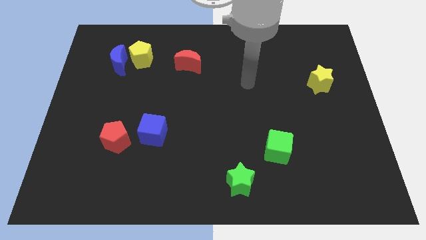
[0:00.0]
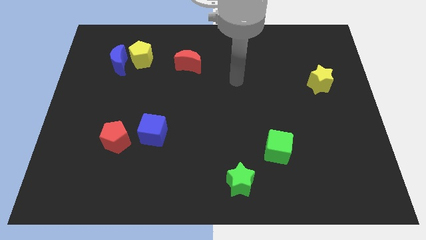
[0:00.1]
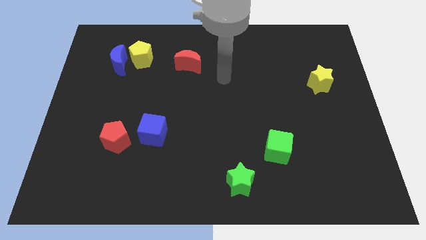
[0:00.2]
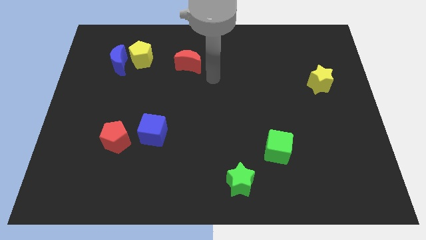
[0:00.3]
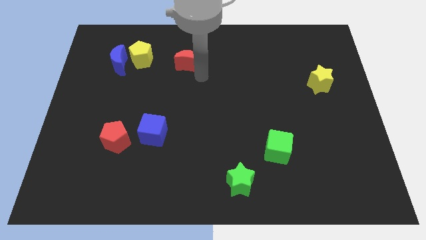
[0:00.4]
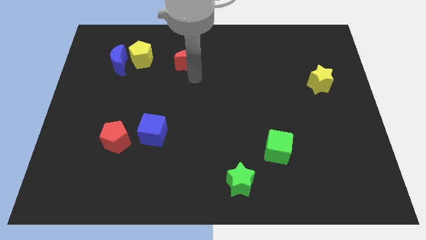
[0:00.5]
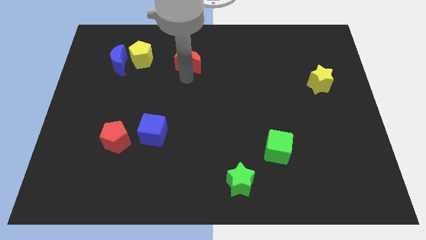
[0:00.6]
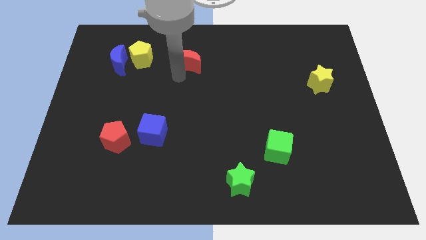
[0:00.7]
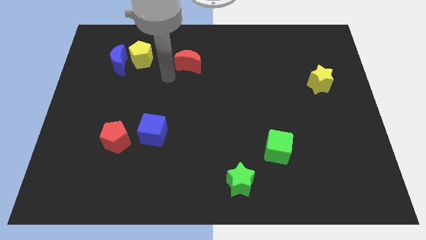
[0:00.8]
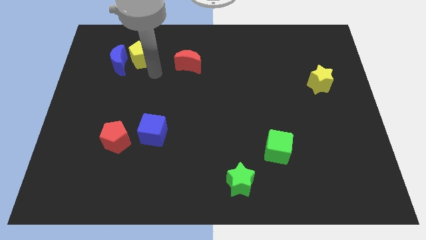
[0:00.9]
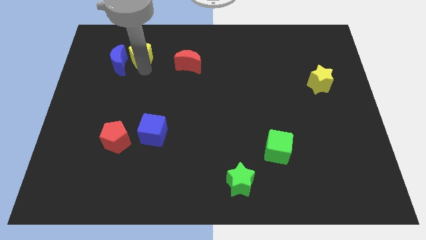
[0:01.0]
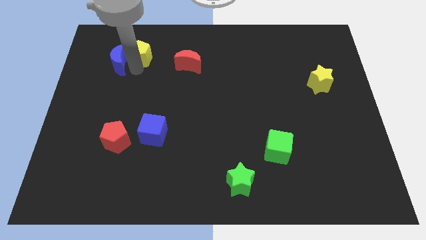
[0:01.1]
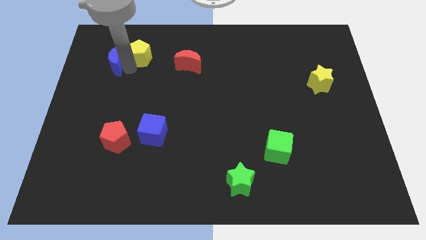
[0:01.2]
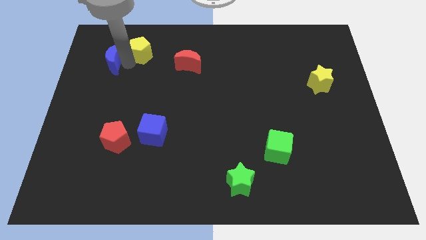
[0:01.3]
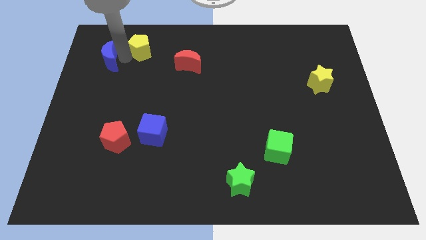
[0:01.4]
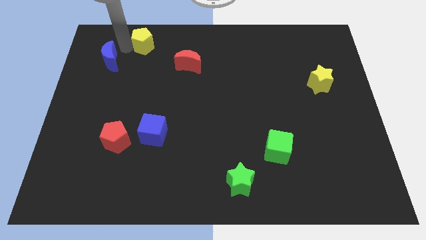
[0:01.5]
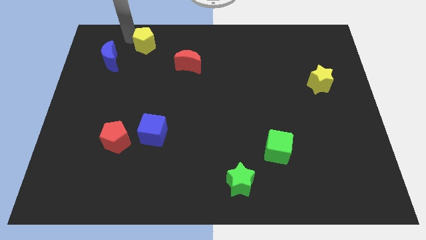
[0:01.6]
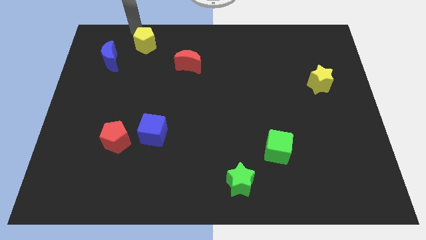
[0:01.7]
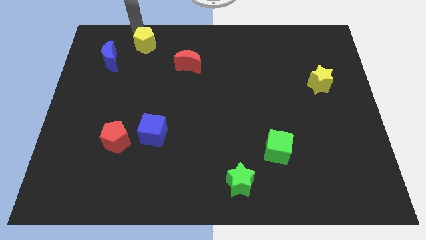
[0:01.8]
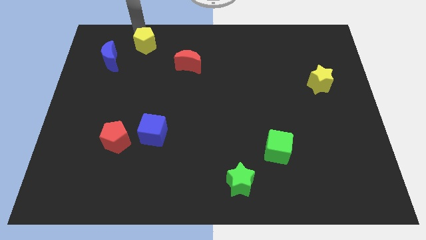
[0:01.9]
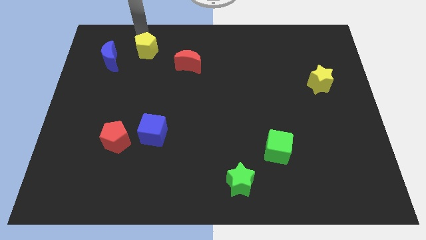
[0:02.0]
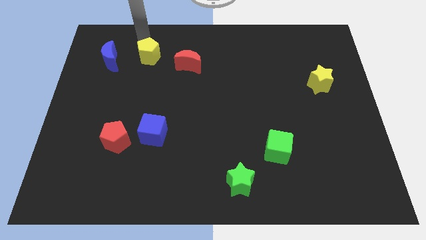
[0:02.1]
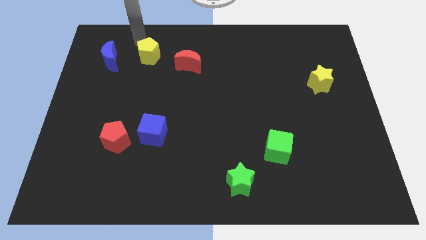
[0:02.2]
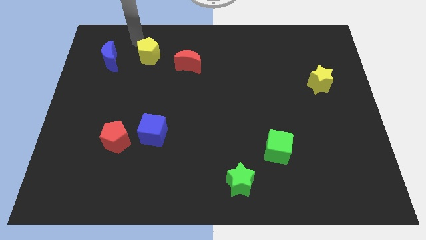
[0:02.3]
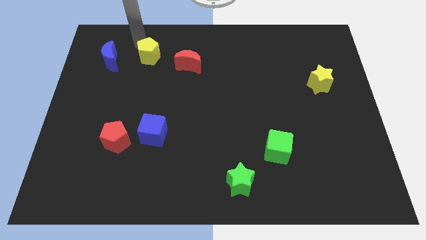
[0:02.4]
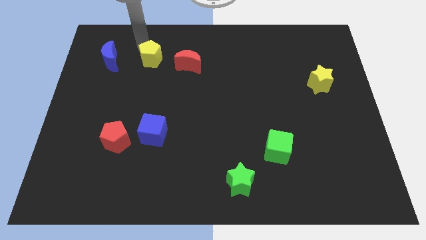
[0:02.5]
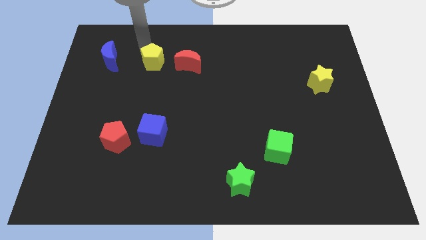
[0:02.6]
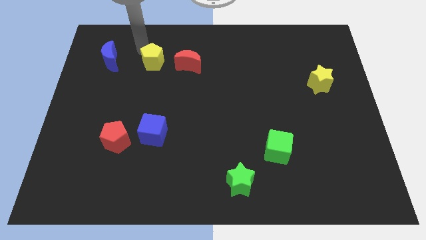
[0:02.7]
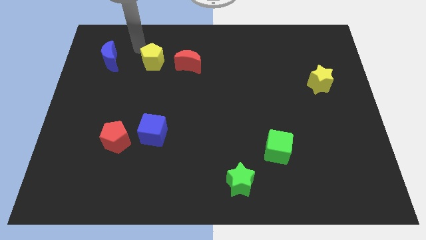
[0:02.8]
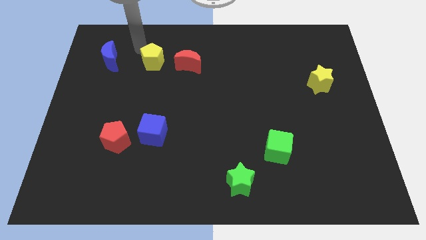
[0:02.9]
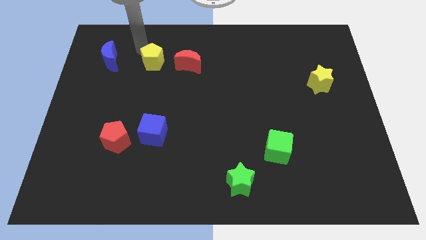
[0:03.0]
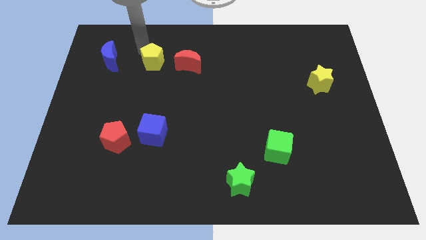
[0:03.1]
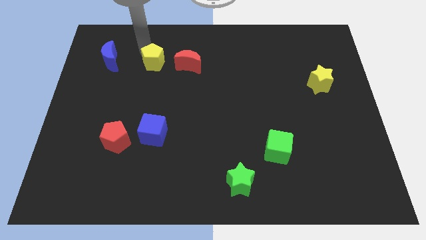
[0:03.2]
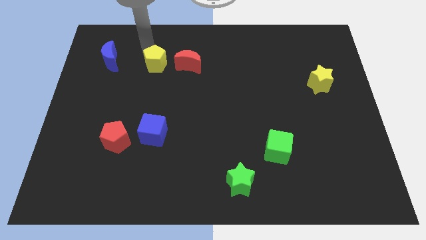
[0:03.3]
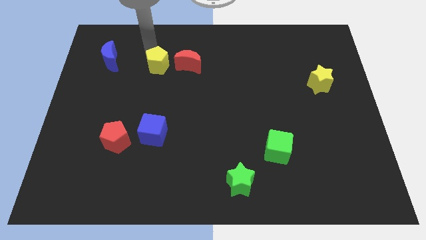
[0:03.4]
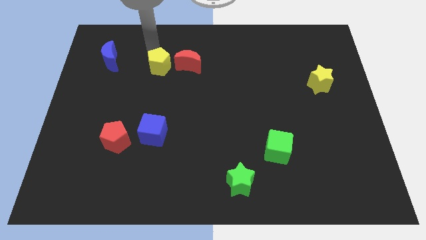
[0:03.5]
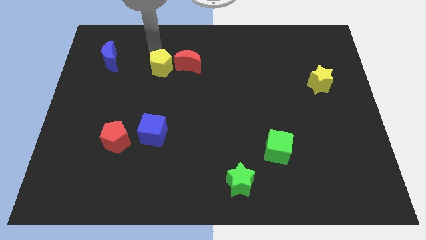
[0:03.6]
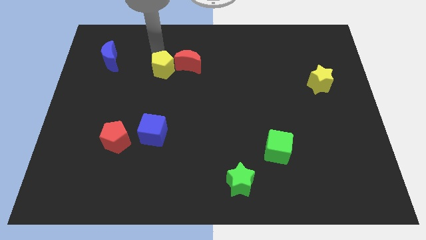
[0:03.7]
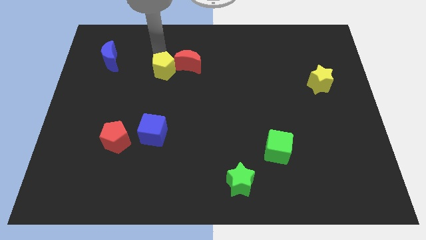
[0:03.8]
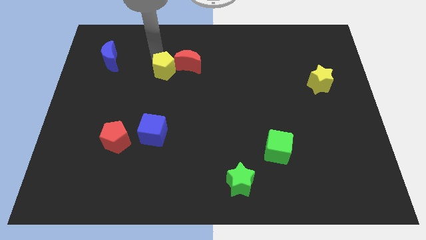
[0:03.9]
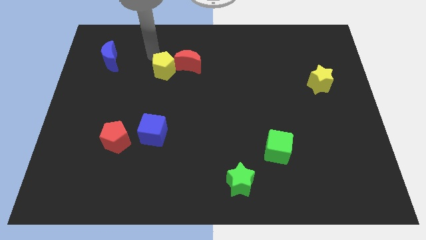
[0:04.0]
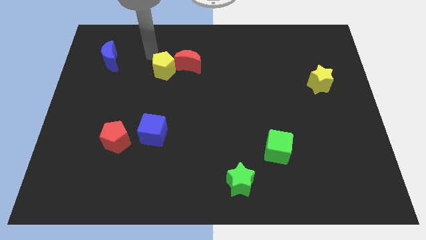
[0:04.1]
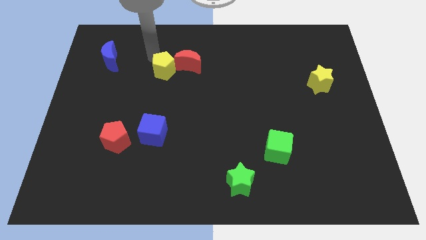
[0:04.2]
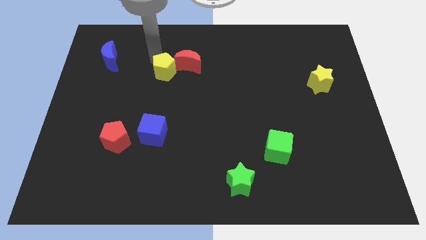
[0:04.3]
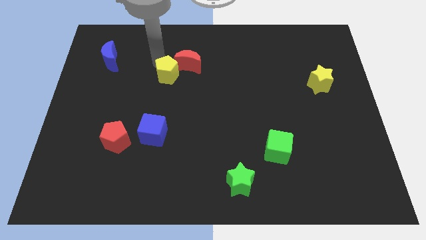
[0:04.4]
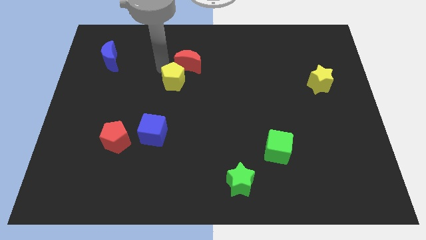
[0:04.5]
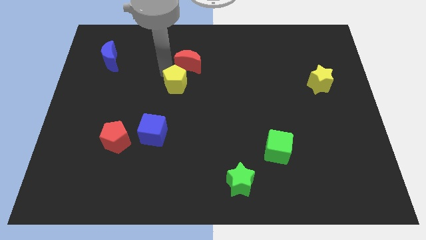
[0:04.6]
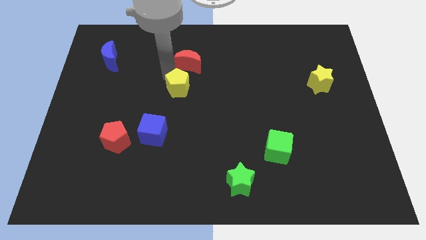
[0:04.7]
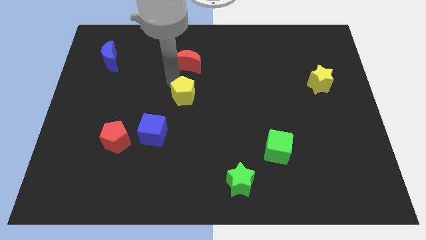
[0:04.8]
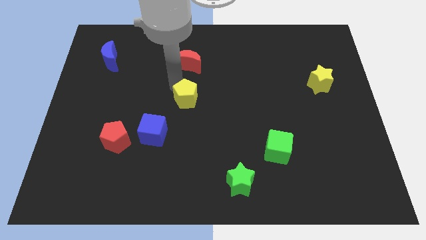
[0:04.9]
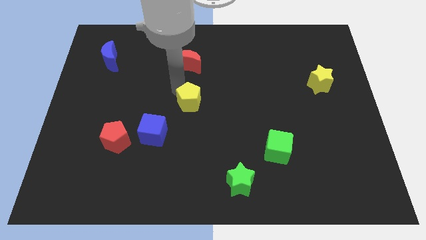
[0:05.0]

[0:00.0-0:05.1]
push the yellow pentagon down and to the right diagonally

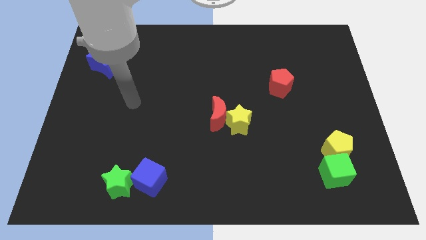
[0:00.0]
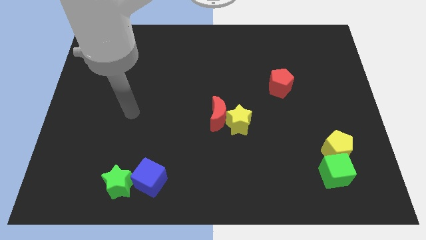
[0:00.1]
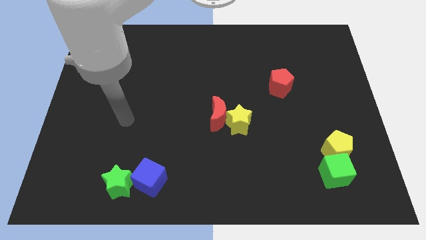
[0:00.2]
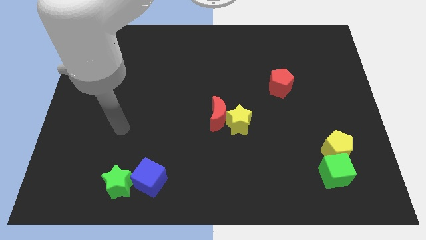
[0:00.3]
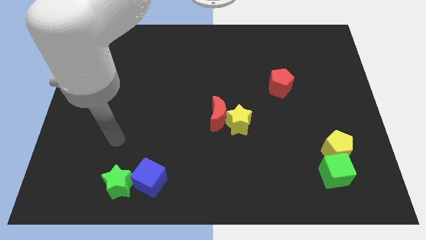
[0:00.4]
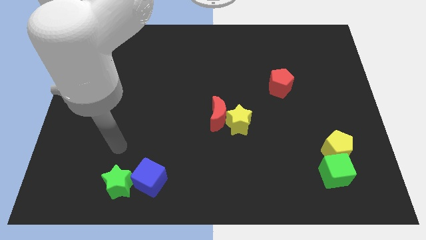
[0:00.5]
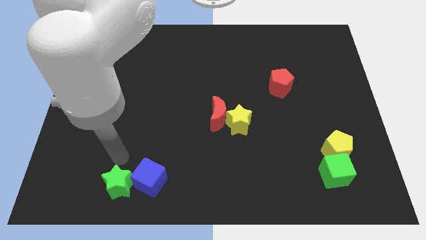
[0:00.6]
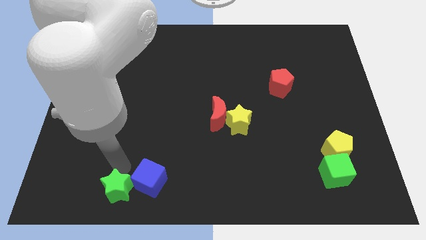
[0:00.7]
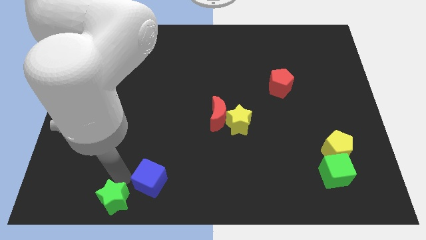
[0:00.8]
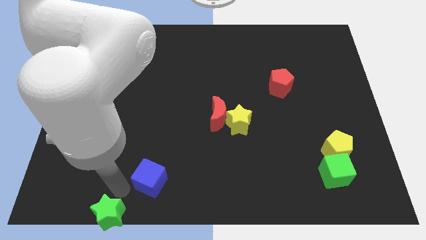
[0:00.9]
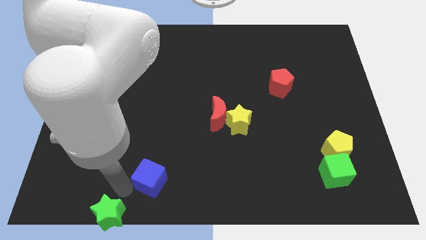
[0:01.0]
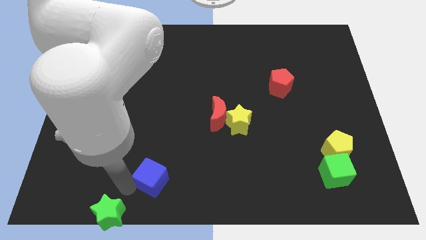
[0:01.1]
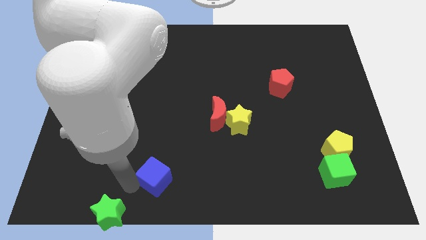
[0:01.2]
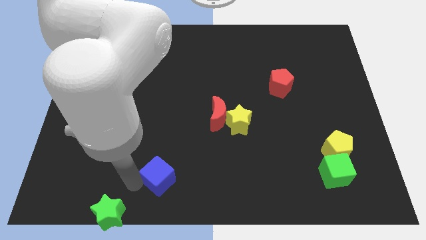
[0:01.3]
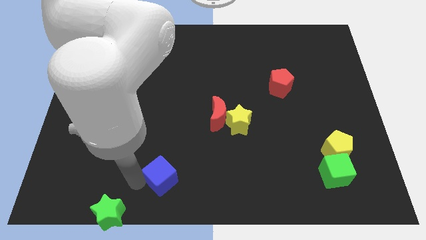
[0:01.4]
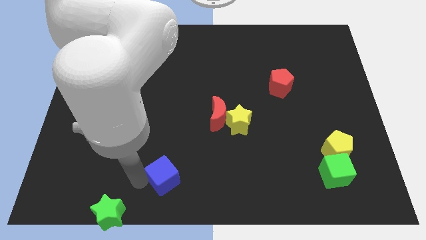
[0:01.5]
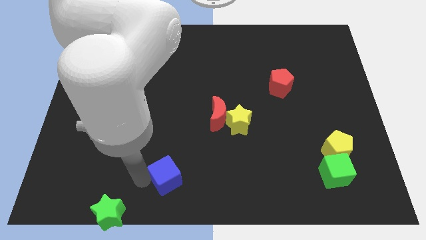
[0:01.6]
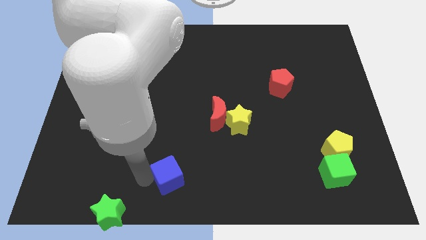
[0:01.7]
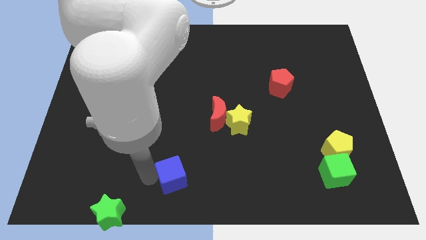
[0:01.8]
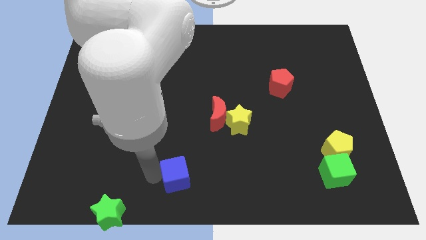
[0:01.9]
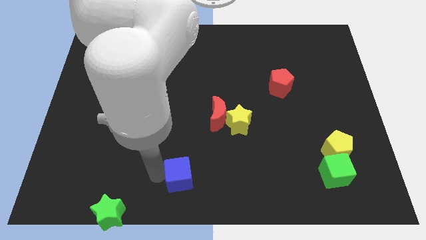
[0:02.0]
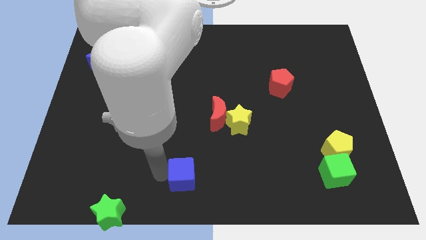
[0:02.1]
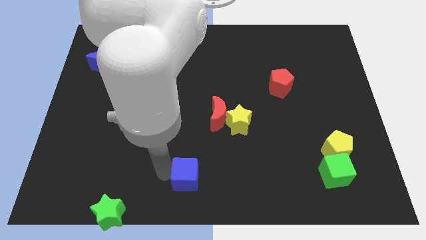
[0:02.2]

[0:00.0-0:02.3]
slide the blue cube slightly to the right

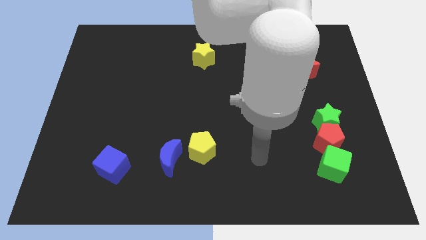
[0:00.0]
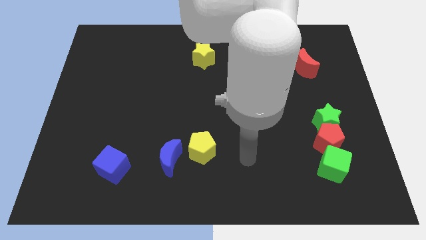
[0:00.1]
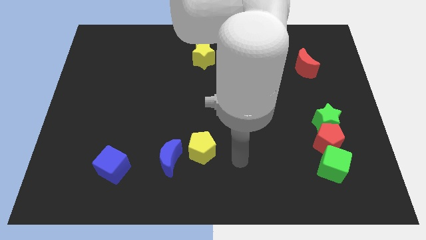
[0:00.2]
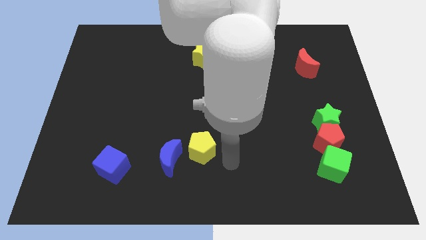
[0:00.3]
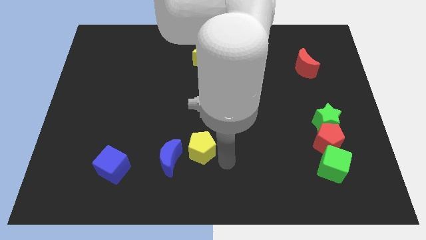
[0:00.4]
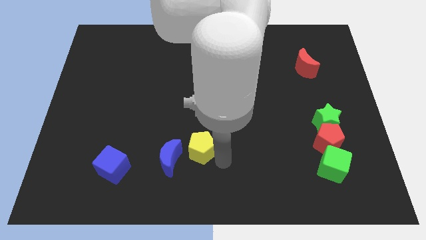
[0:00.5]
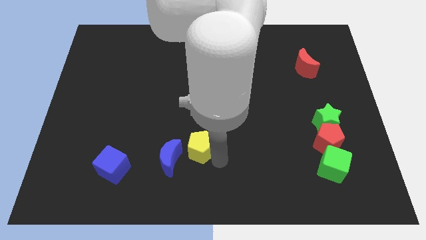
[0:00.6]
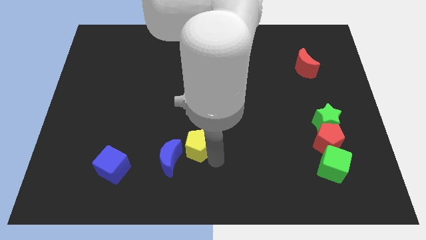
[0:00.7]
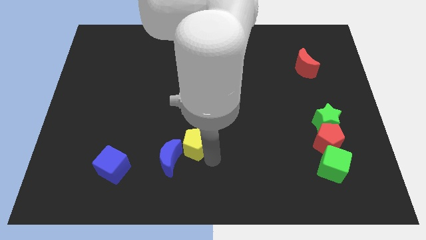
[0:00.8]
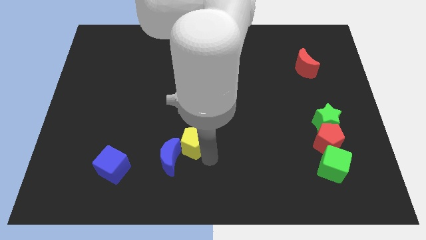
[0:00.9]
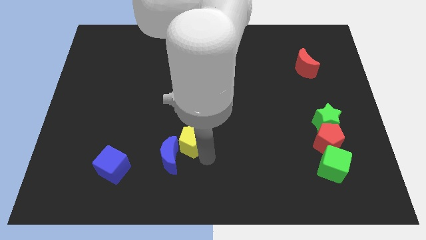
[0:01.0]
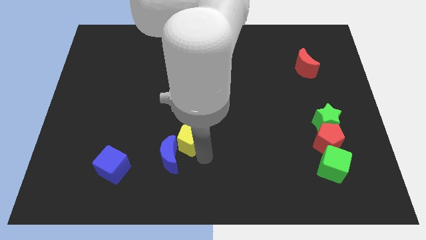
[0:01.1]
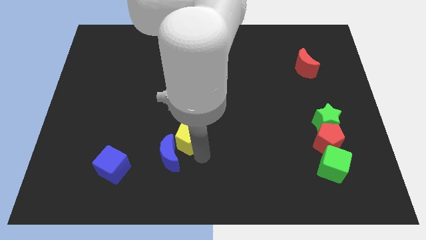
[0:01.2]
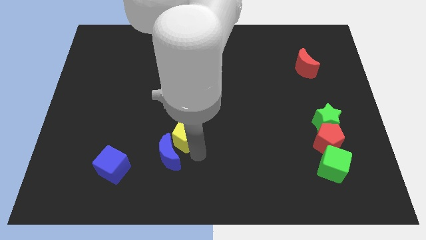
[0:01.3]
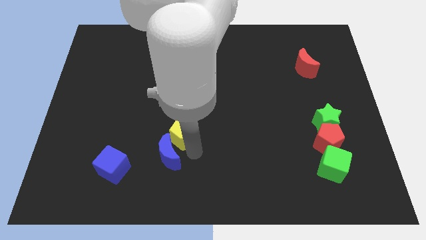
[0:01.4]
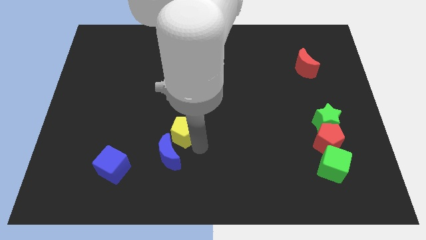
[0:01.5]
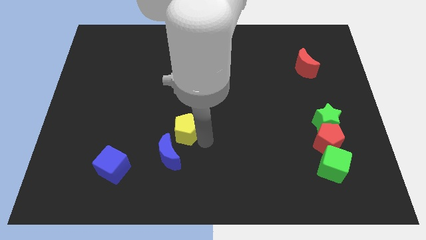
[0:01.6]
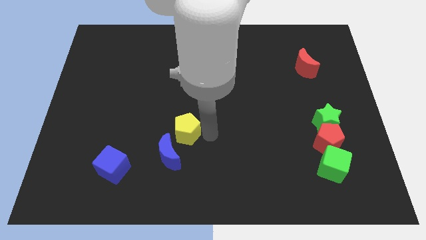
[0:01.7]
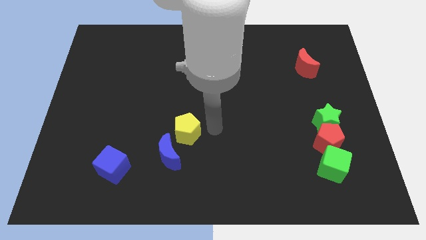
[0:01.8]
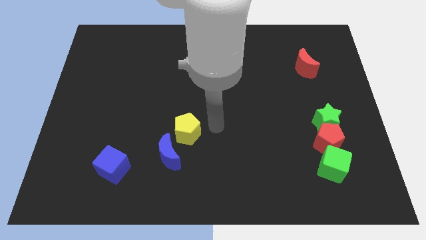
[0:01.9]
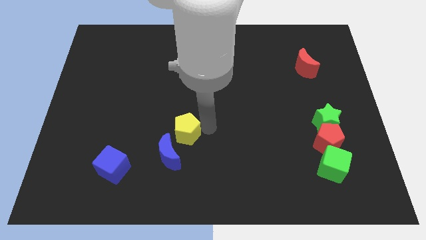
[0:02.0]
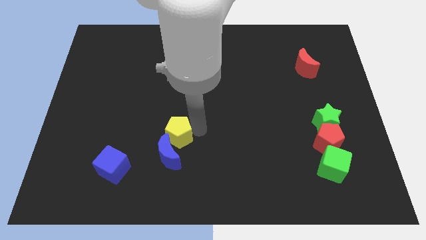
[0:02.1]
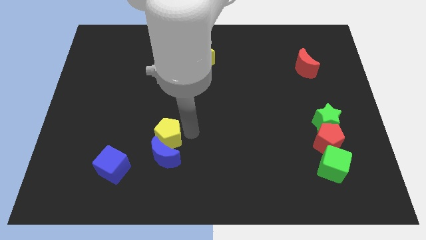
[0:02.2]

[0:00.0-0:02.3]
move the yellow pentagon slightly left
